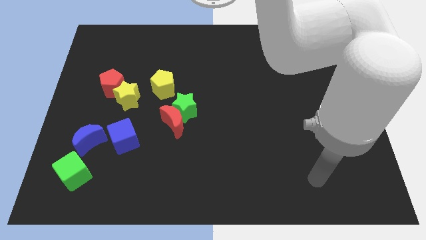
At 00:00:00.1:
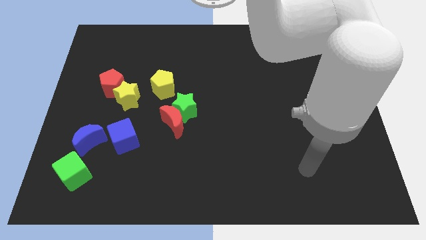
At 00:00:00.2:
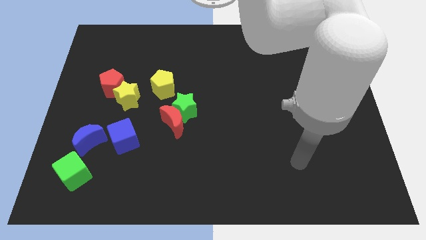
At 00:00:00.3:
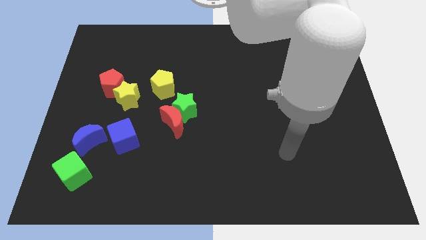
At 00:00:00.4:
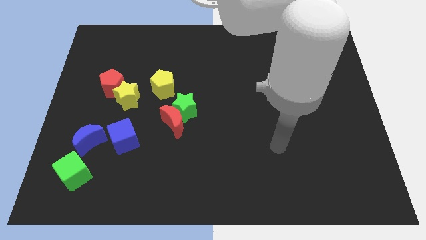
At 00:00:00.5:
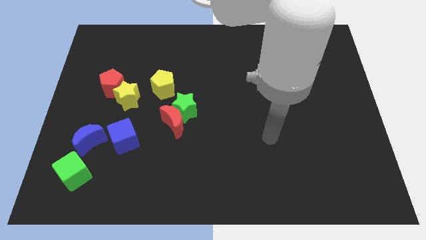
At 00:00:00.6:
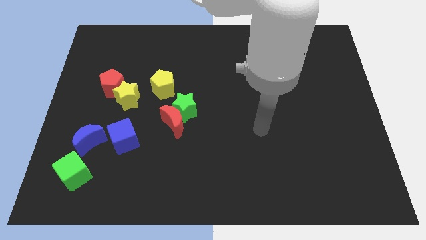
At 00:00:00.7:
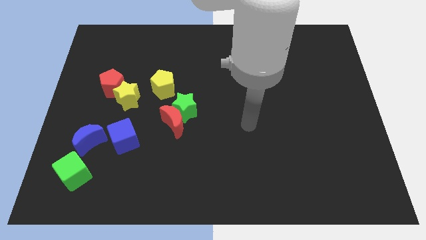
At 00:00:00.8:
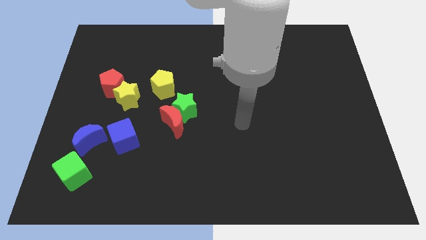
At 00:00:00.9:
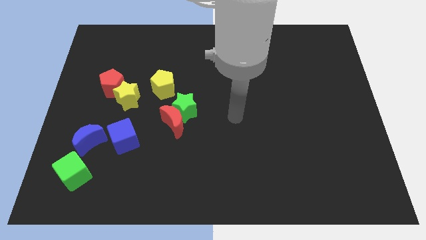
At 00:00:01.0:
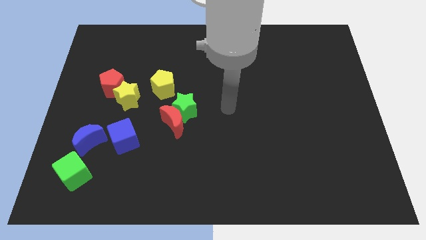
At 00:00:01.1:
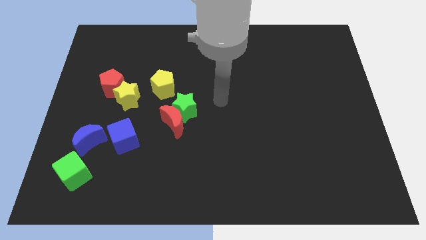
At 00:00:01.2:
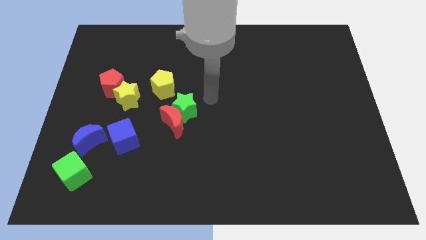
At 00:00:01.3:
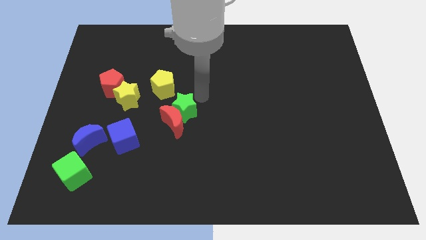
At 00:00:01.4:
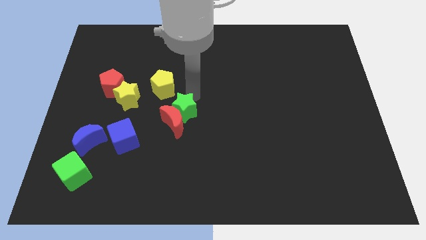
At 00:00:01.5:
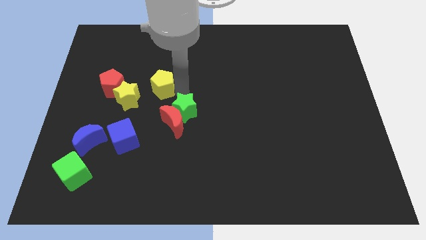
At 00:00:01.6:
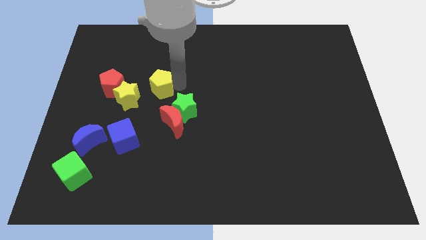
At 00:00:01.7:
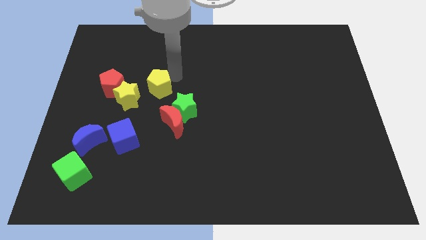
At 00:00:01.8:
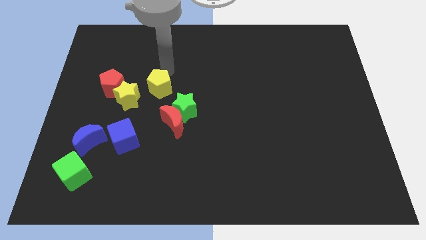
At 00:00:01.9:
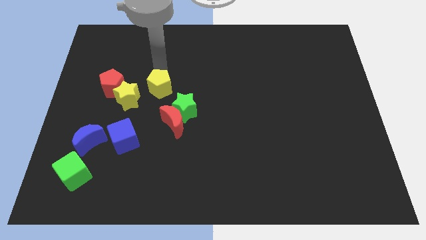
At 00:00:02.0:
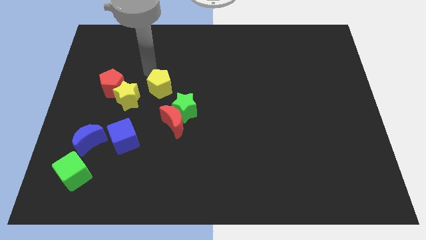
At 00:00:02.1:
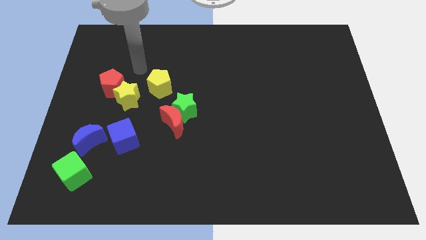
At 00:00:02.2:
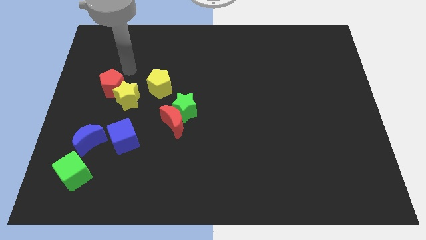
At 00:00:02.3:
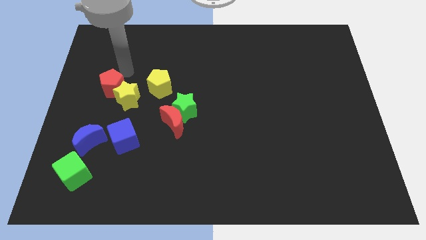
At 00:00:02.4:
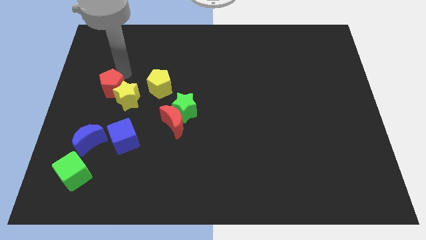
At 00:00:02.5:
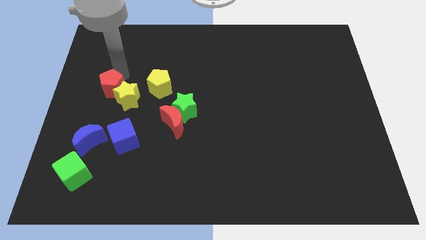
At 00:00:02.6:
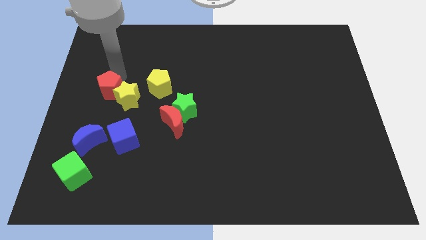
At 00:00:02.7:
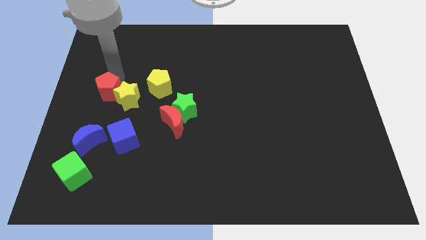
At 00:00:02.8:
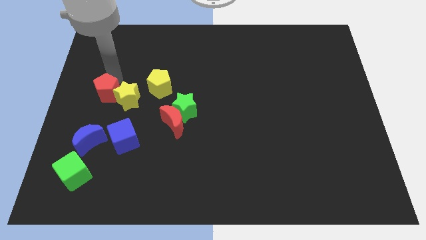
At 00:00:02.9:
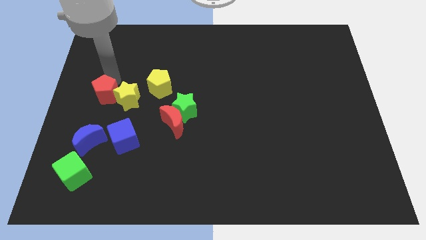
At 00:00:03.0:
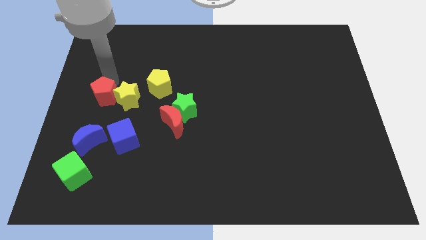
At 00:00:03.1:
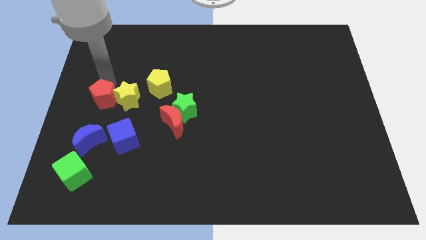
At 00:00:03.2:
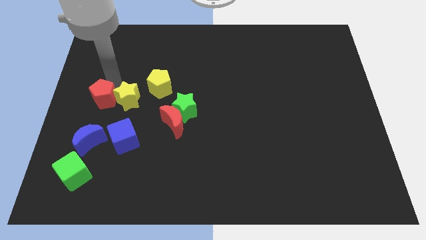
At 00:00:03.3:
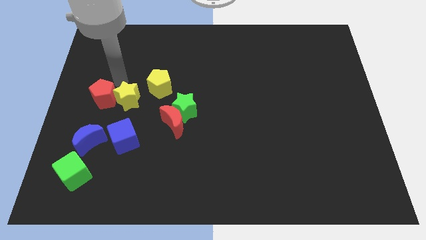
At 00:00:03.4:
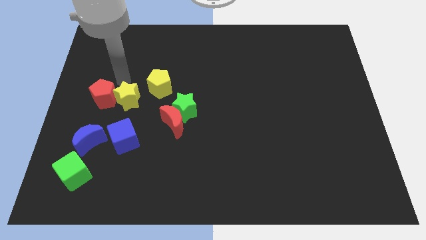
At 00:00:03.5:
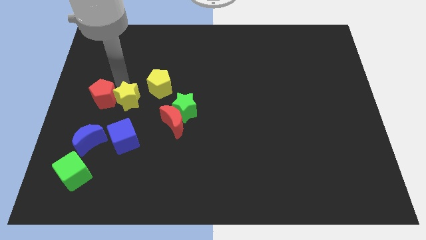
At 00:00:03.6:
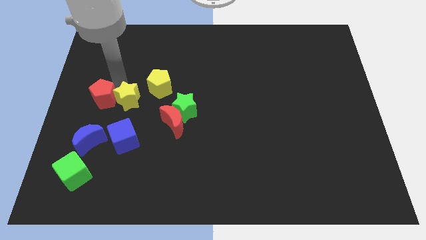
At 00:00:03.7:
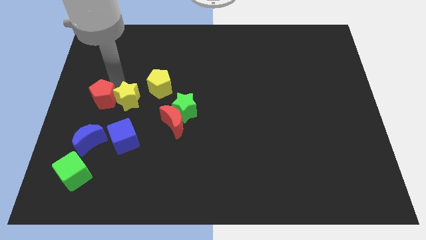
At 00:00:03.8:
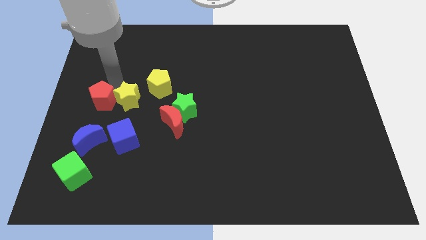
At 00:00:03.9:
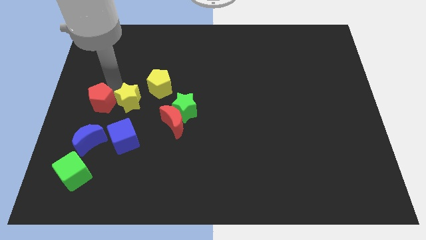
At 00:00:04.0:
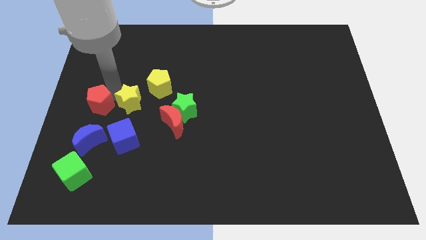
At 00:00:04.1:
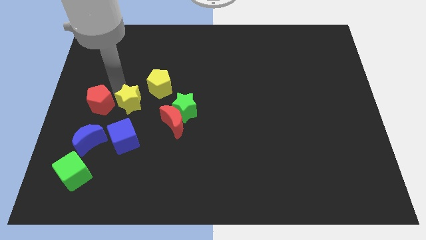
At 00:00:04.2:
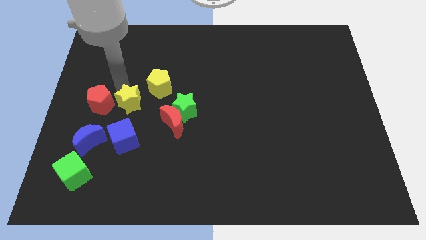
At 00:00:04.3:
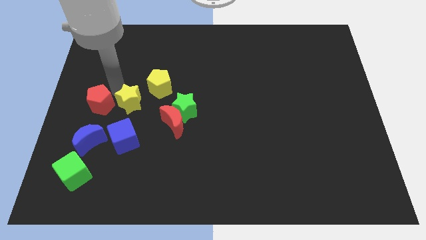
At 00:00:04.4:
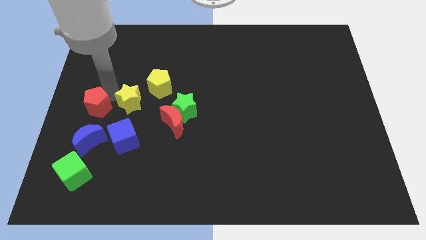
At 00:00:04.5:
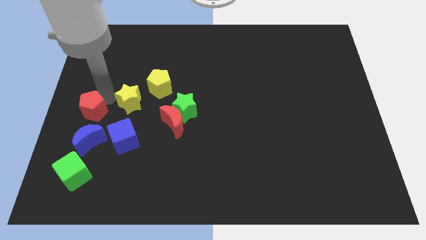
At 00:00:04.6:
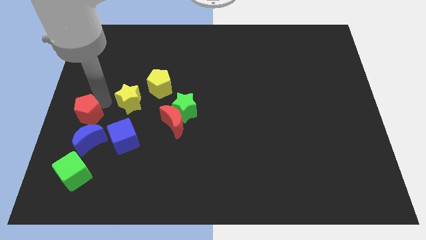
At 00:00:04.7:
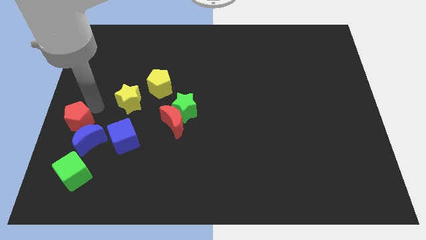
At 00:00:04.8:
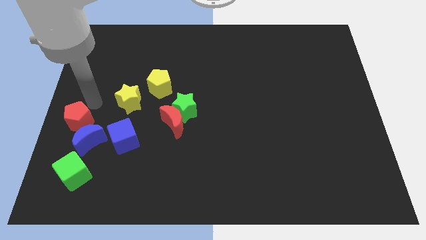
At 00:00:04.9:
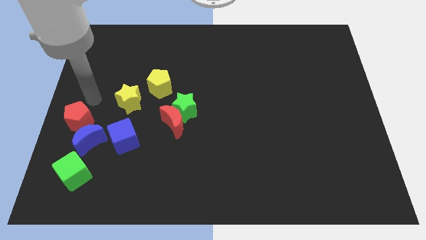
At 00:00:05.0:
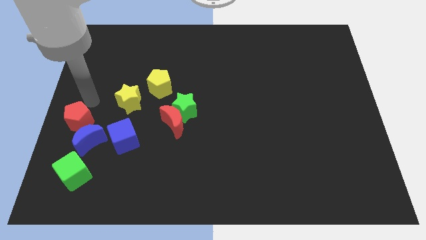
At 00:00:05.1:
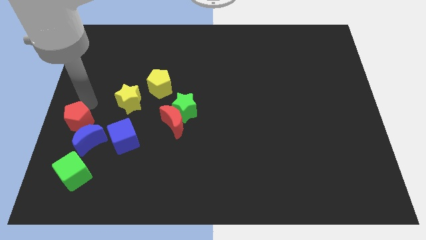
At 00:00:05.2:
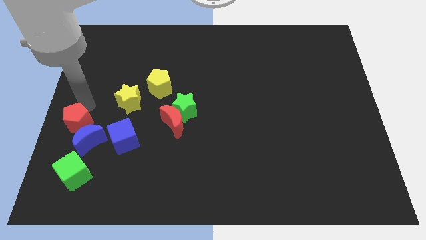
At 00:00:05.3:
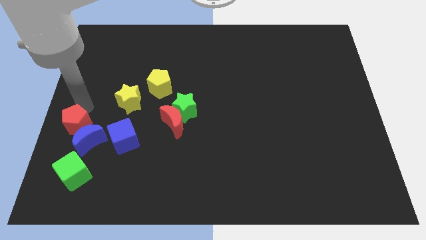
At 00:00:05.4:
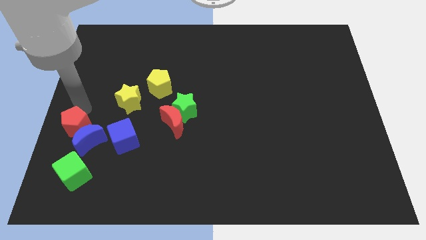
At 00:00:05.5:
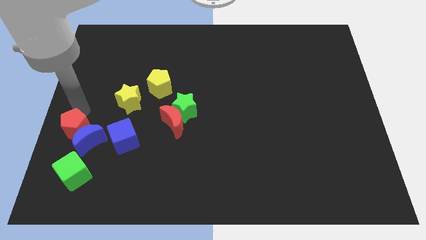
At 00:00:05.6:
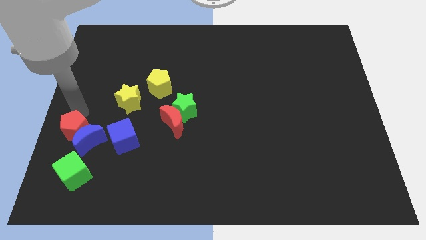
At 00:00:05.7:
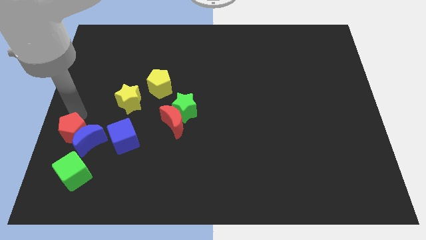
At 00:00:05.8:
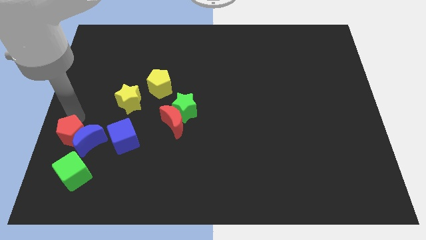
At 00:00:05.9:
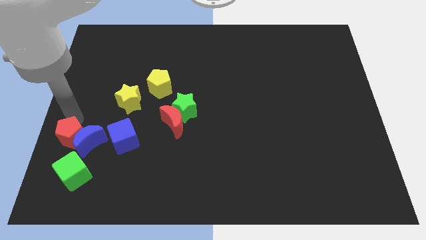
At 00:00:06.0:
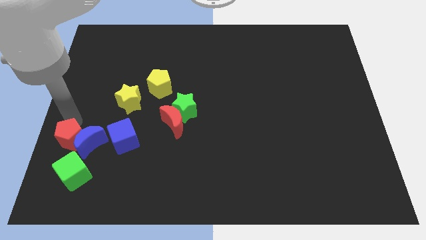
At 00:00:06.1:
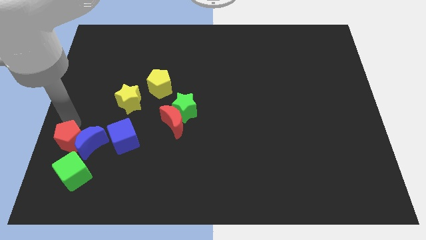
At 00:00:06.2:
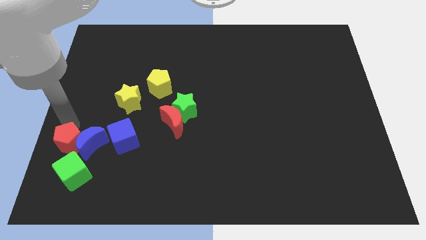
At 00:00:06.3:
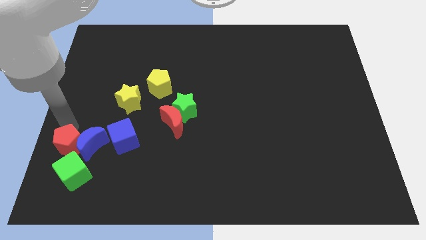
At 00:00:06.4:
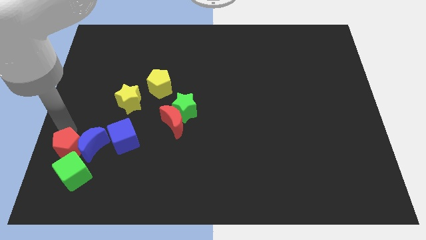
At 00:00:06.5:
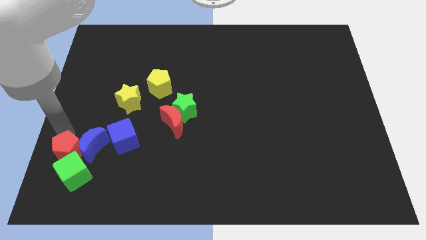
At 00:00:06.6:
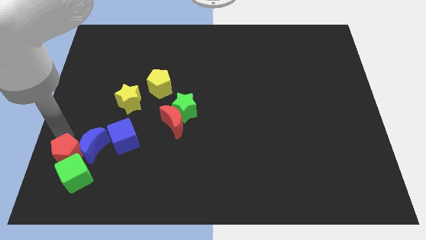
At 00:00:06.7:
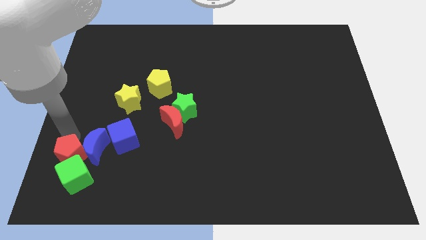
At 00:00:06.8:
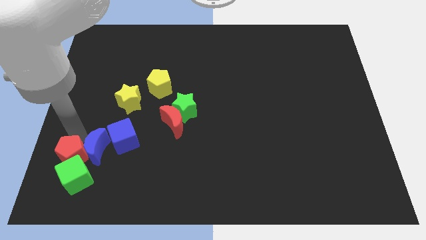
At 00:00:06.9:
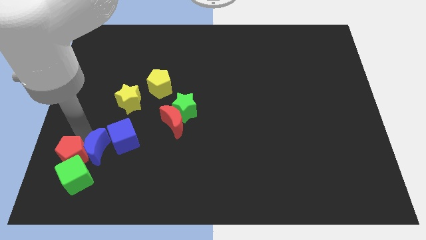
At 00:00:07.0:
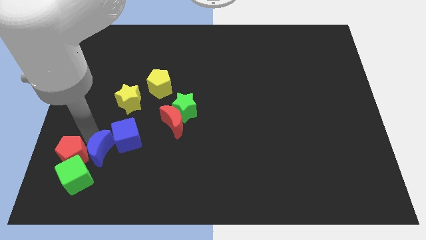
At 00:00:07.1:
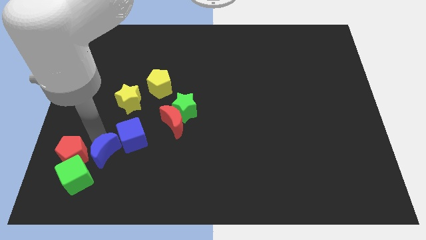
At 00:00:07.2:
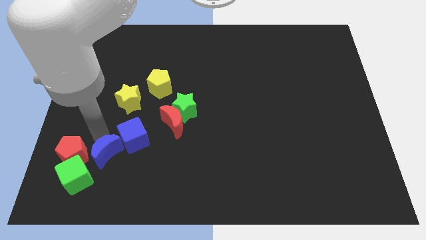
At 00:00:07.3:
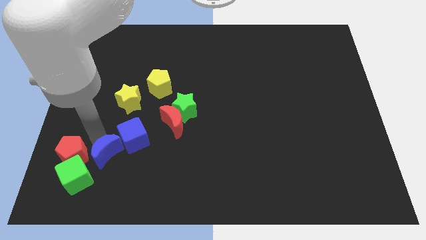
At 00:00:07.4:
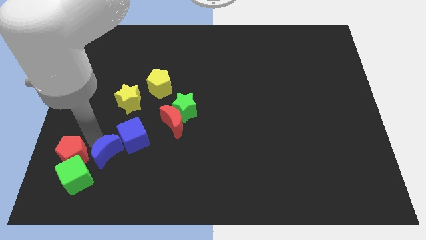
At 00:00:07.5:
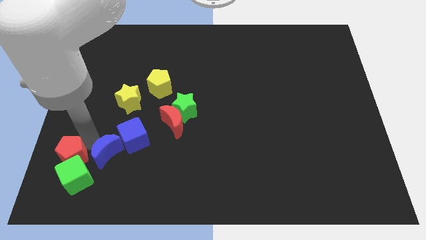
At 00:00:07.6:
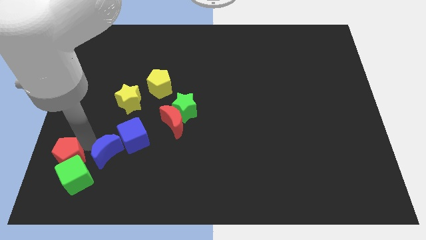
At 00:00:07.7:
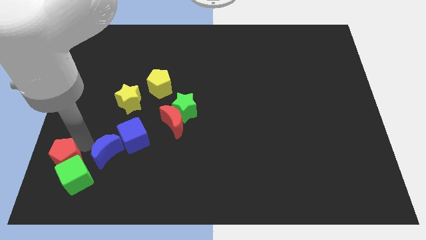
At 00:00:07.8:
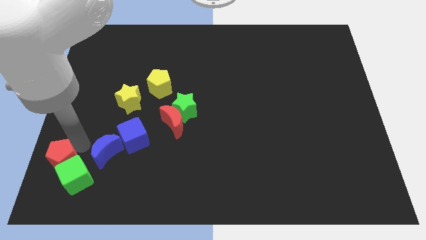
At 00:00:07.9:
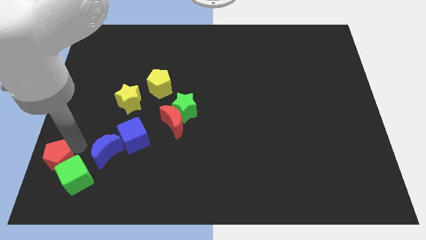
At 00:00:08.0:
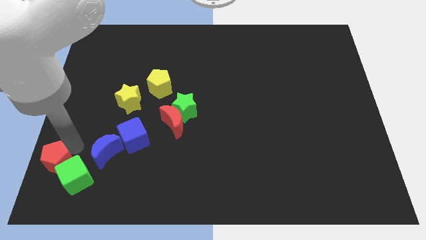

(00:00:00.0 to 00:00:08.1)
move the red pentagon to the bottom left
